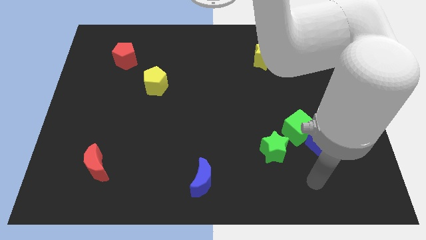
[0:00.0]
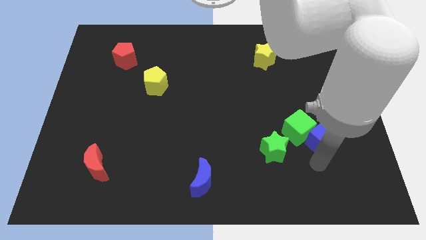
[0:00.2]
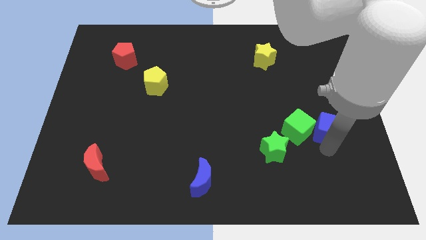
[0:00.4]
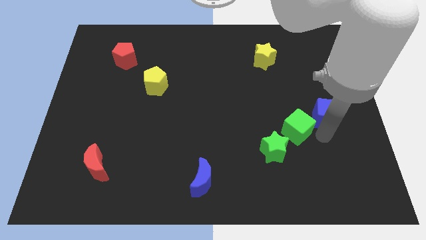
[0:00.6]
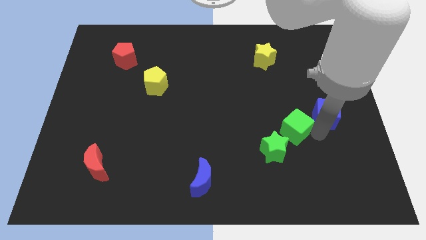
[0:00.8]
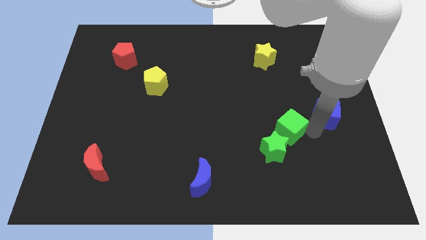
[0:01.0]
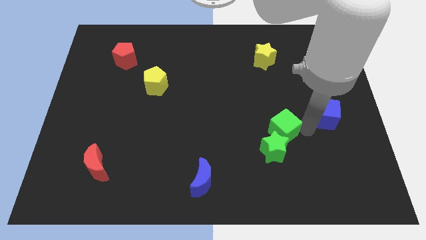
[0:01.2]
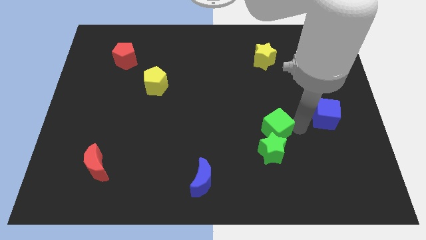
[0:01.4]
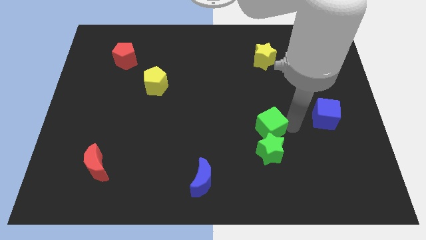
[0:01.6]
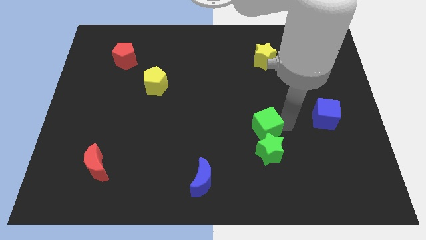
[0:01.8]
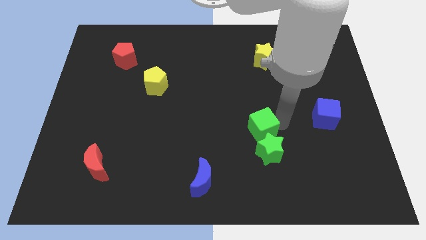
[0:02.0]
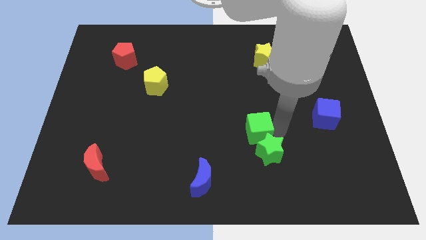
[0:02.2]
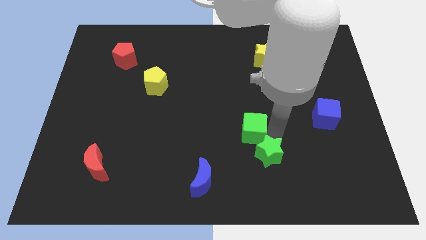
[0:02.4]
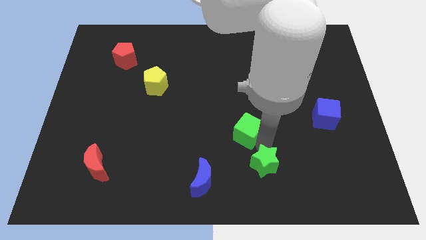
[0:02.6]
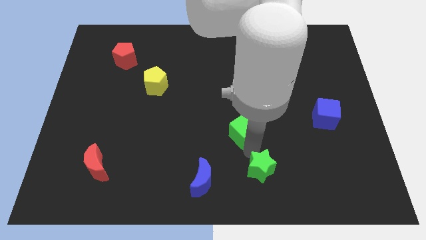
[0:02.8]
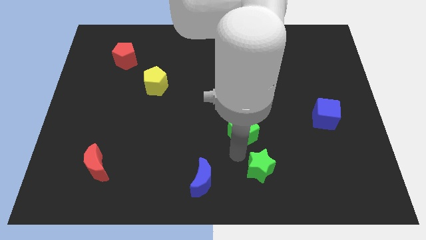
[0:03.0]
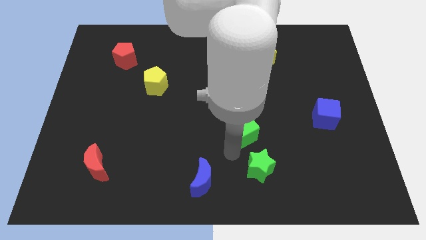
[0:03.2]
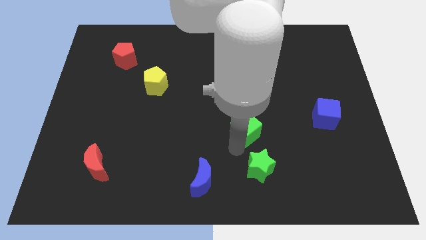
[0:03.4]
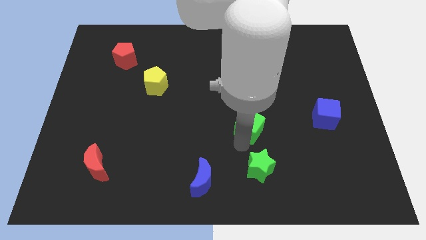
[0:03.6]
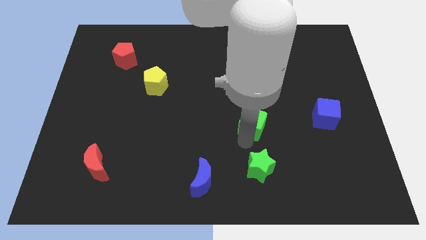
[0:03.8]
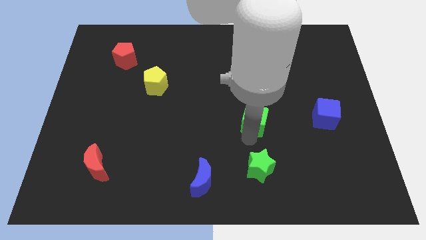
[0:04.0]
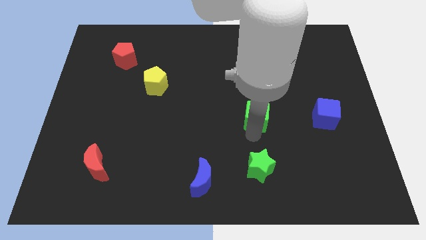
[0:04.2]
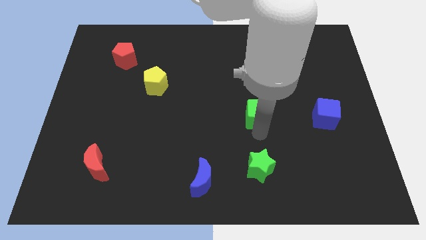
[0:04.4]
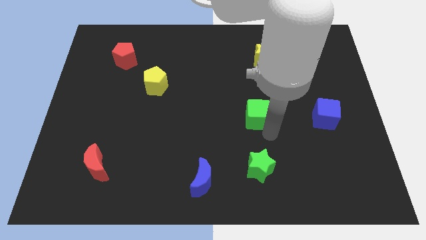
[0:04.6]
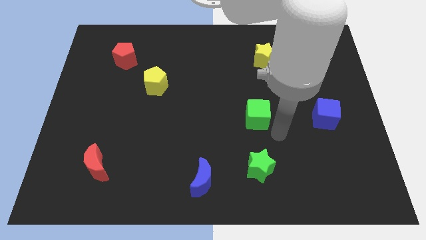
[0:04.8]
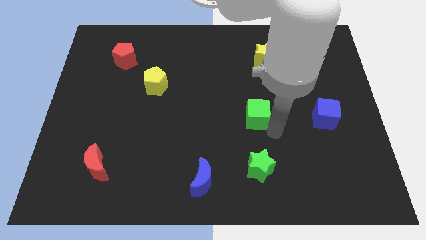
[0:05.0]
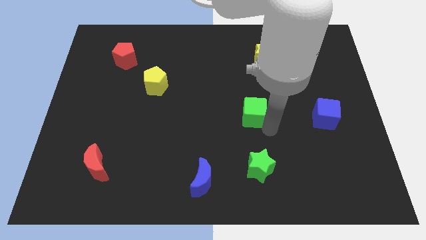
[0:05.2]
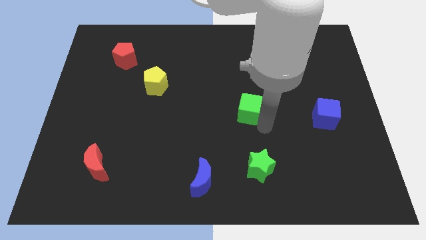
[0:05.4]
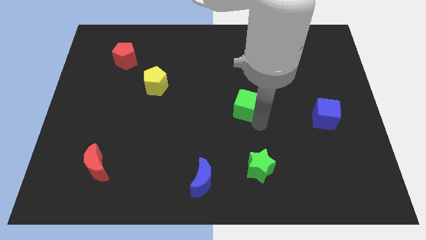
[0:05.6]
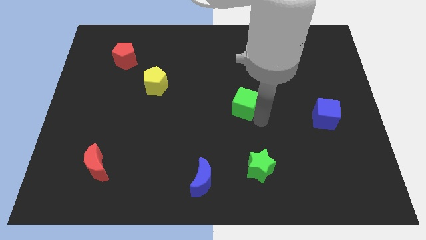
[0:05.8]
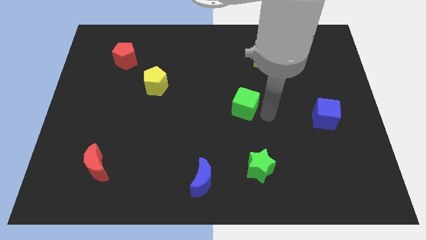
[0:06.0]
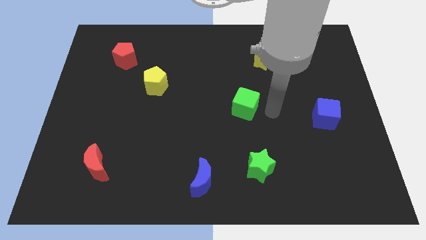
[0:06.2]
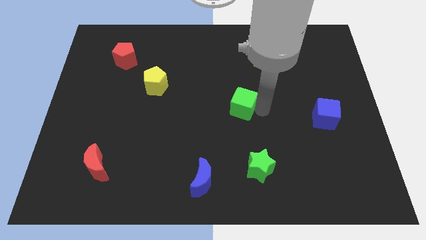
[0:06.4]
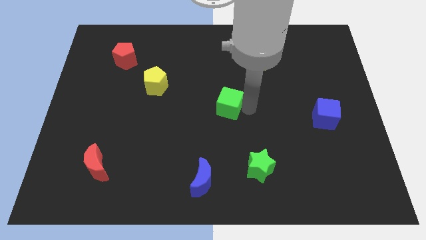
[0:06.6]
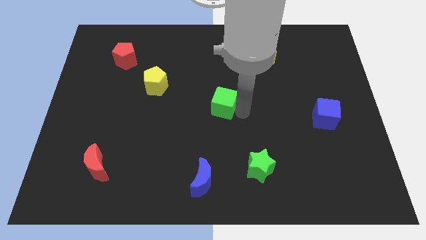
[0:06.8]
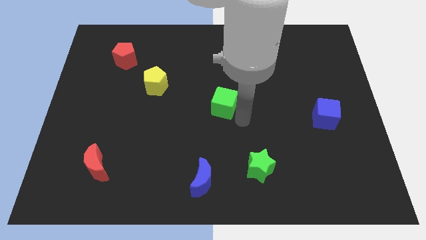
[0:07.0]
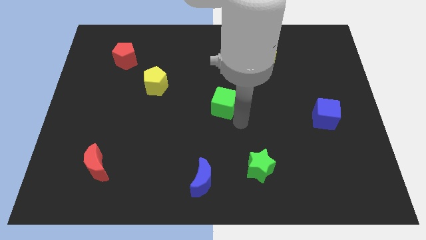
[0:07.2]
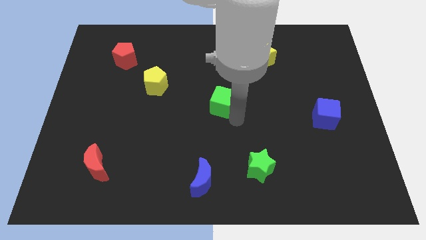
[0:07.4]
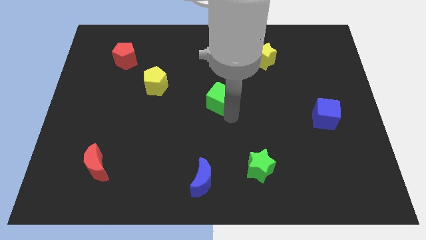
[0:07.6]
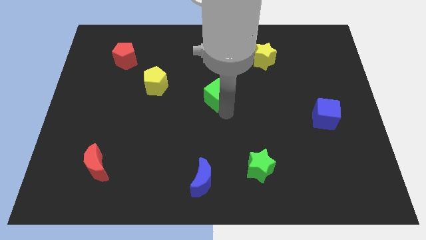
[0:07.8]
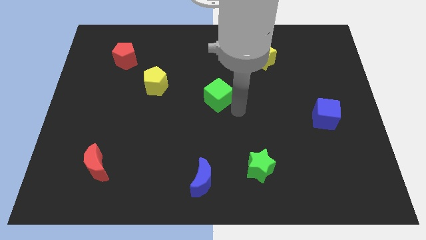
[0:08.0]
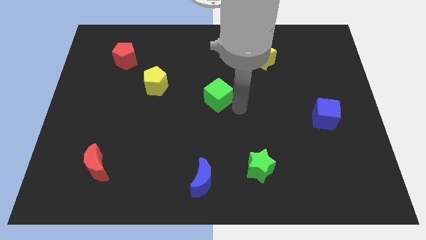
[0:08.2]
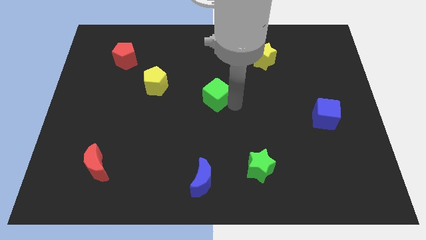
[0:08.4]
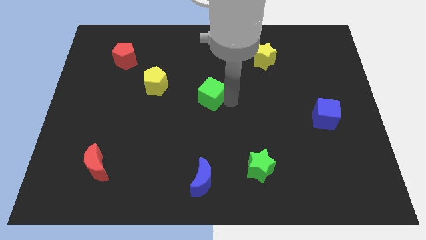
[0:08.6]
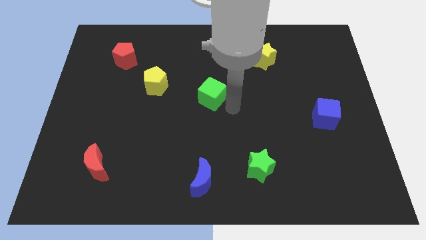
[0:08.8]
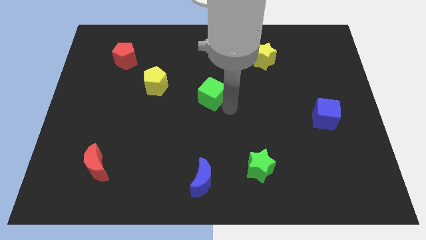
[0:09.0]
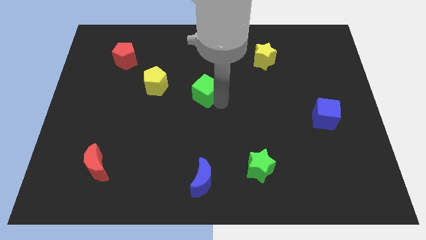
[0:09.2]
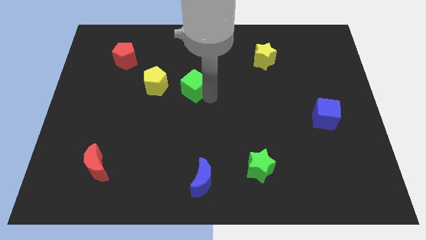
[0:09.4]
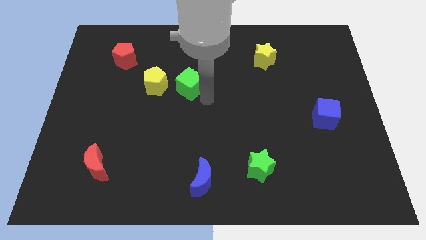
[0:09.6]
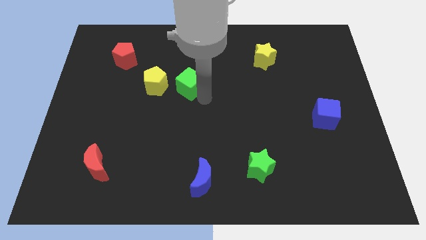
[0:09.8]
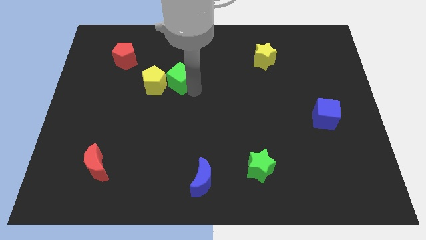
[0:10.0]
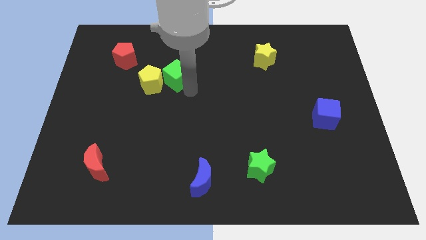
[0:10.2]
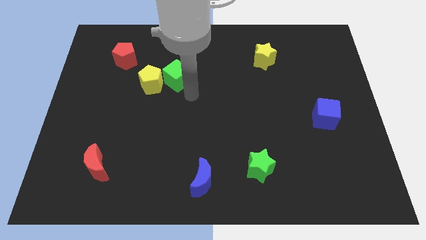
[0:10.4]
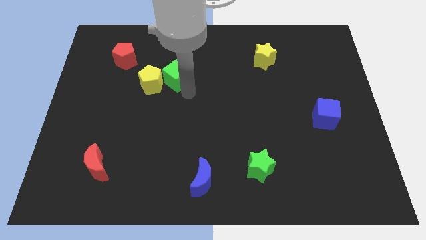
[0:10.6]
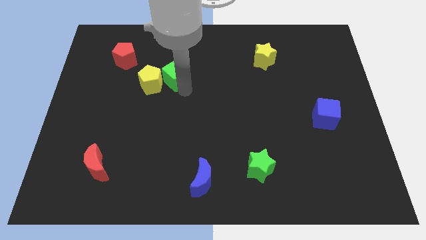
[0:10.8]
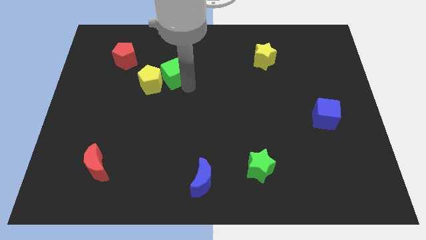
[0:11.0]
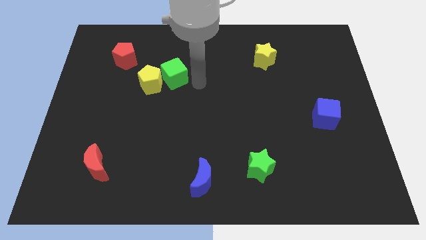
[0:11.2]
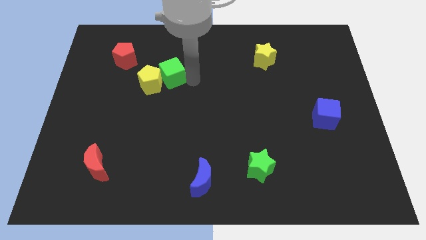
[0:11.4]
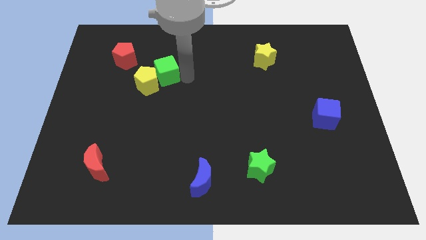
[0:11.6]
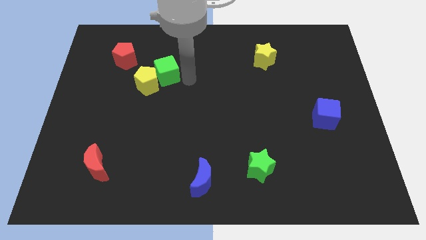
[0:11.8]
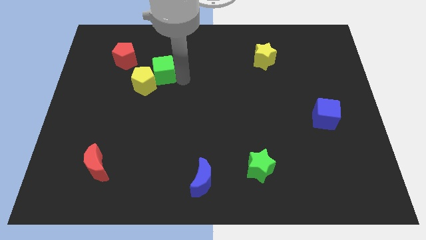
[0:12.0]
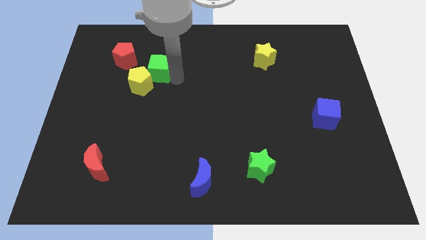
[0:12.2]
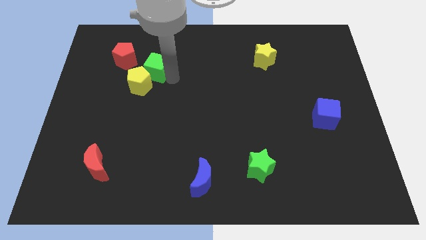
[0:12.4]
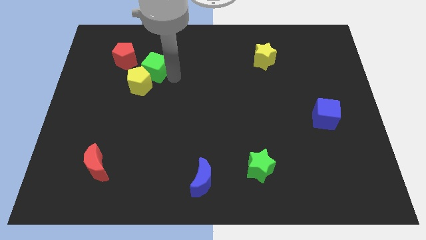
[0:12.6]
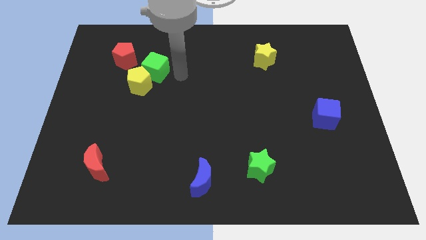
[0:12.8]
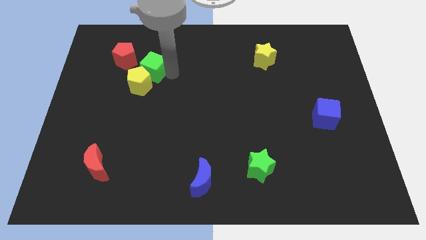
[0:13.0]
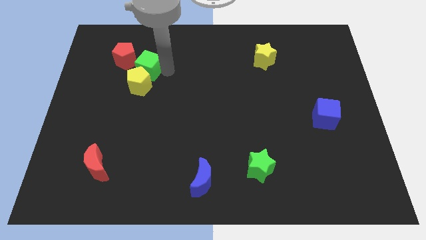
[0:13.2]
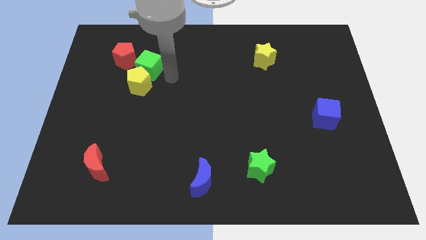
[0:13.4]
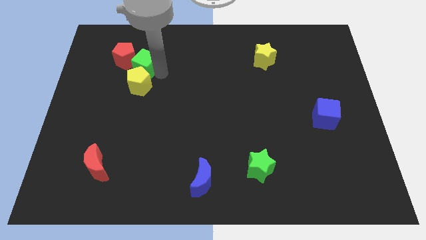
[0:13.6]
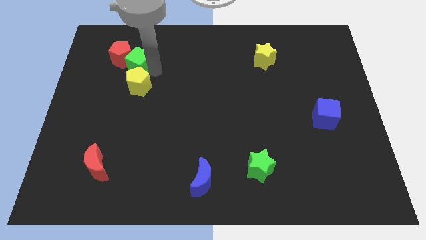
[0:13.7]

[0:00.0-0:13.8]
move the green cube towards the red pentagon
